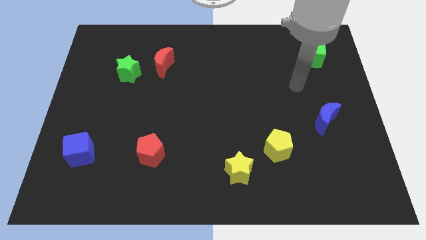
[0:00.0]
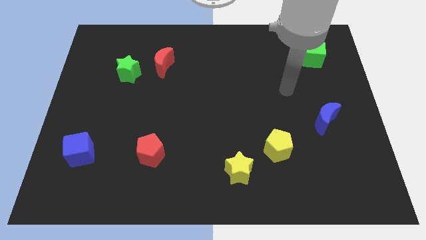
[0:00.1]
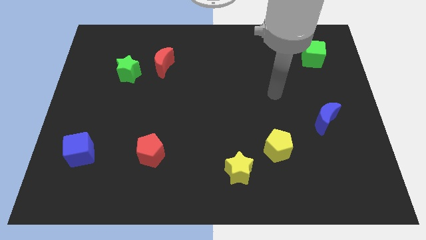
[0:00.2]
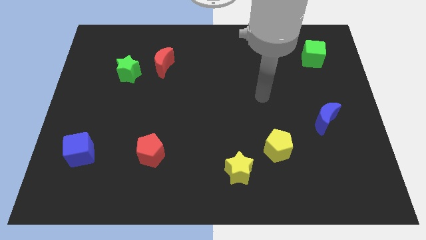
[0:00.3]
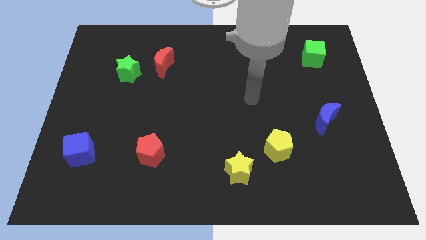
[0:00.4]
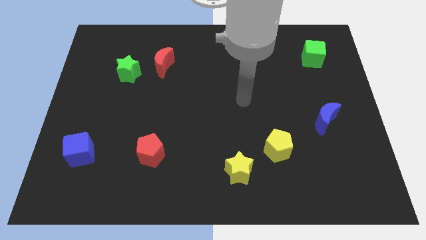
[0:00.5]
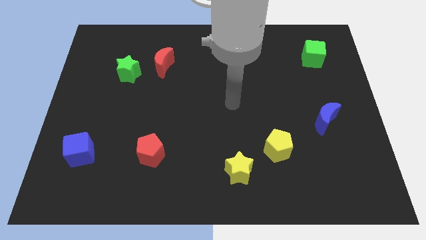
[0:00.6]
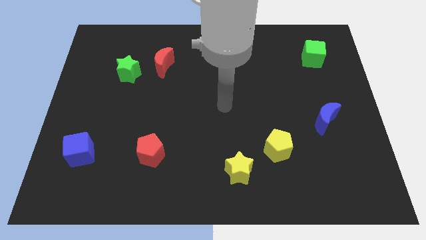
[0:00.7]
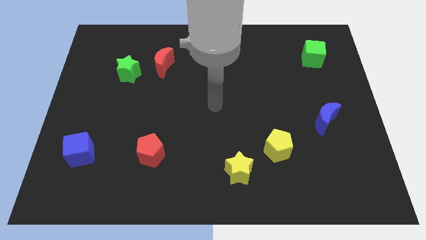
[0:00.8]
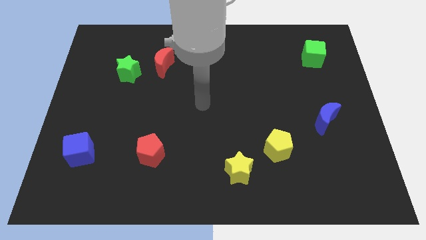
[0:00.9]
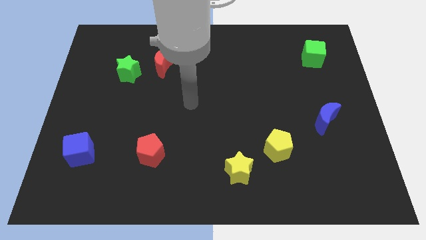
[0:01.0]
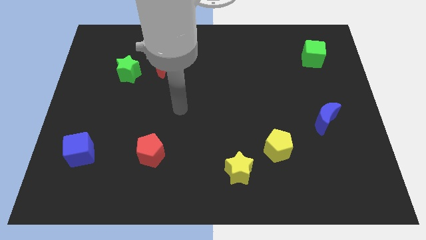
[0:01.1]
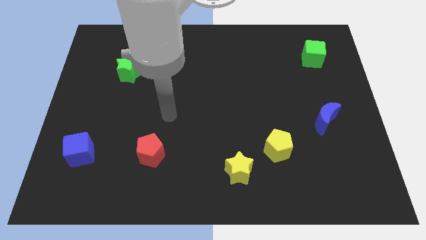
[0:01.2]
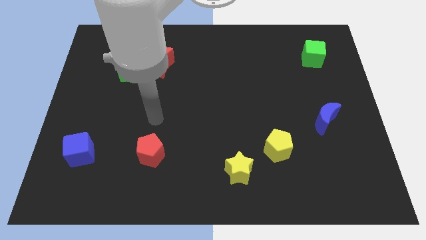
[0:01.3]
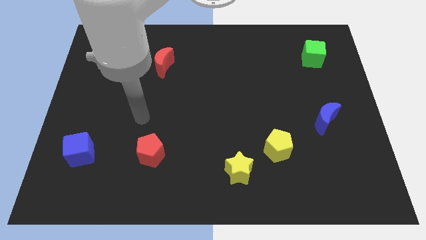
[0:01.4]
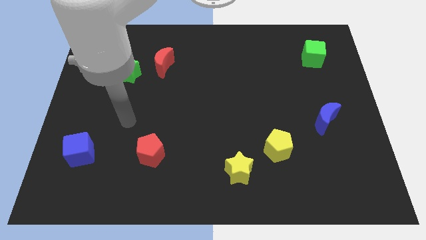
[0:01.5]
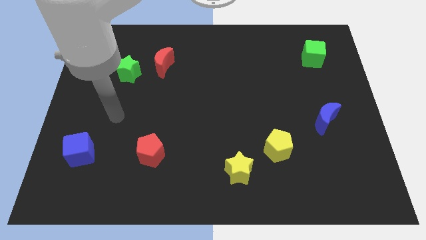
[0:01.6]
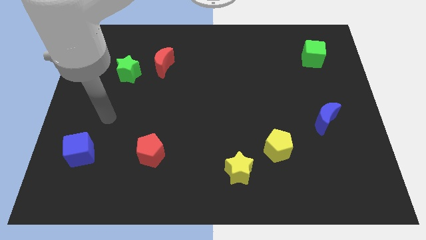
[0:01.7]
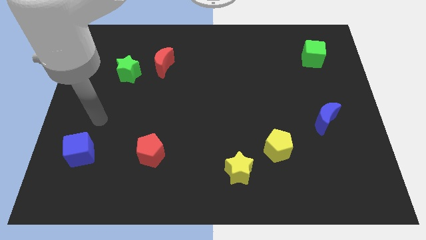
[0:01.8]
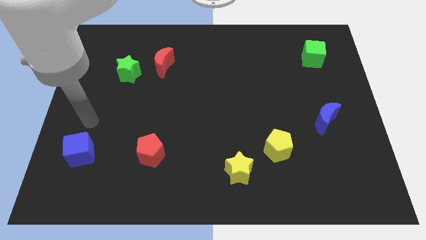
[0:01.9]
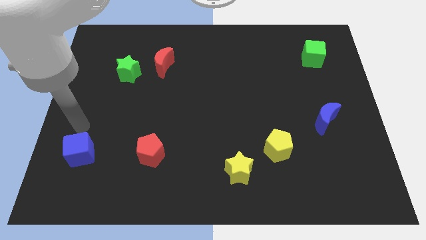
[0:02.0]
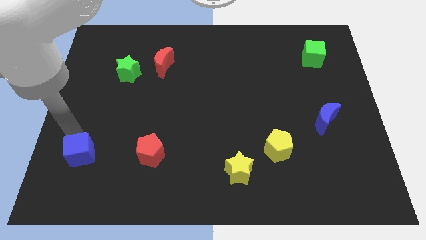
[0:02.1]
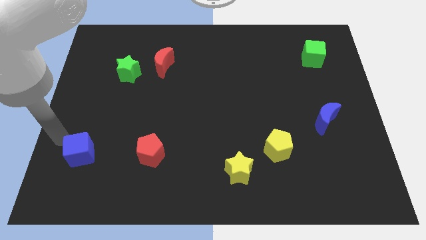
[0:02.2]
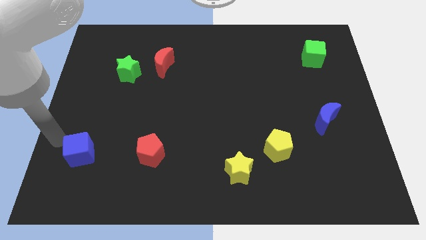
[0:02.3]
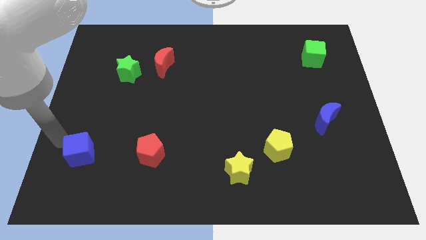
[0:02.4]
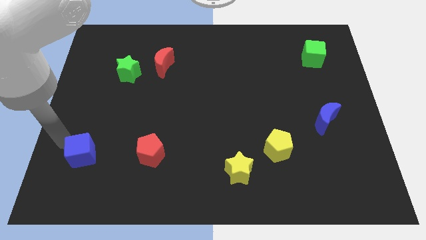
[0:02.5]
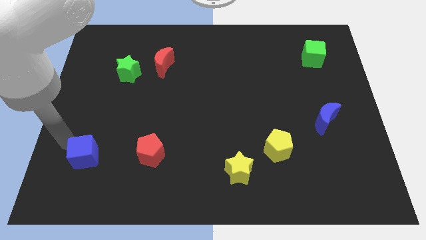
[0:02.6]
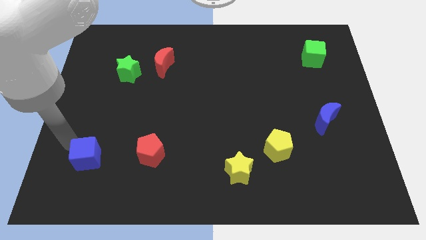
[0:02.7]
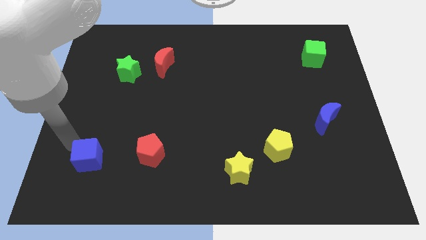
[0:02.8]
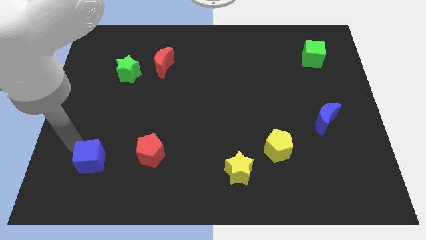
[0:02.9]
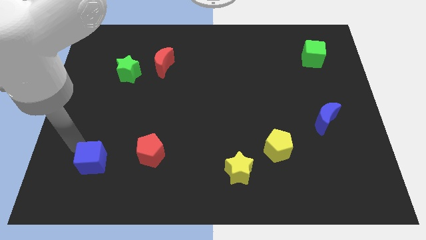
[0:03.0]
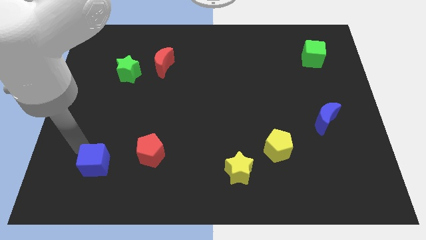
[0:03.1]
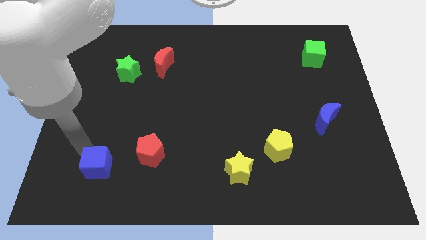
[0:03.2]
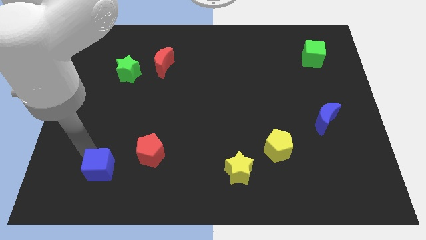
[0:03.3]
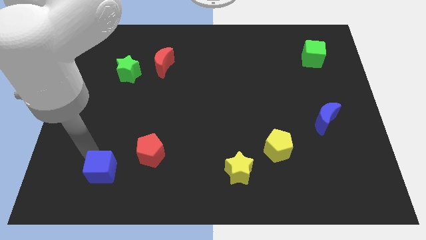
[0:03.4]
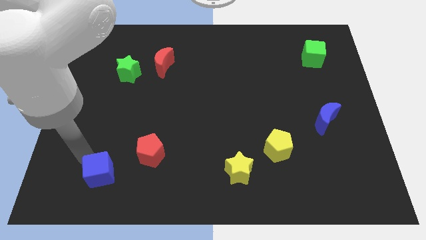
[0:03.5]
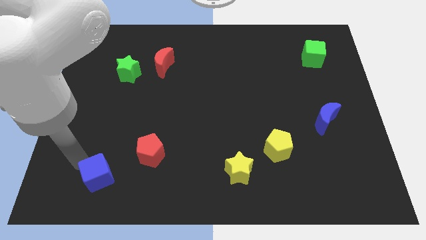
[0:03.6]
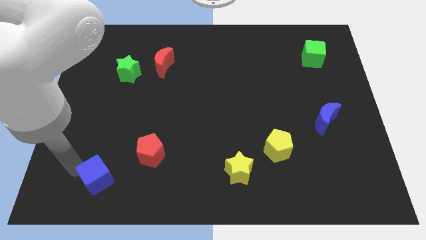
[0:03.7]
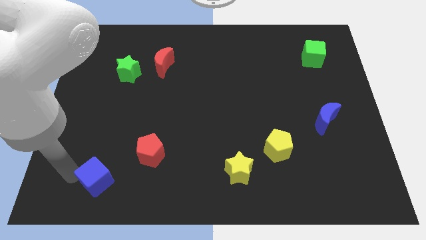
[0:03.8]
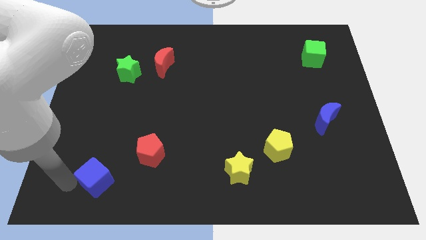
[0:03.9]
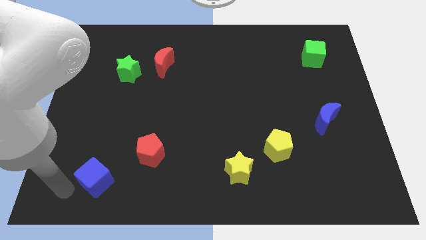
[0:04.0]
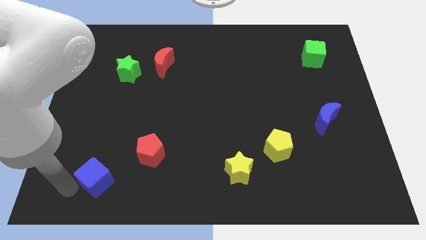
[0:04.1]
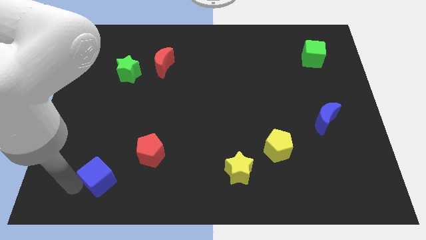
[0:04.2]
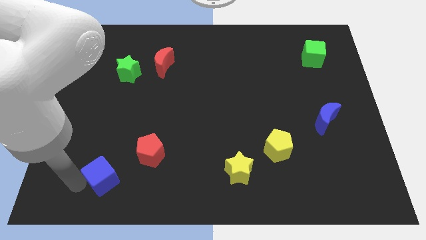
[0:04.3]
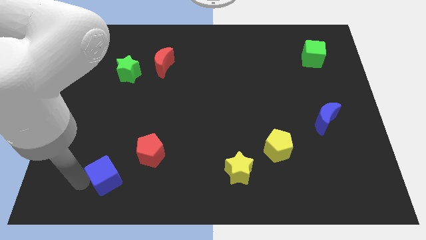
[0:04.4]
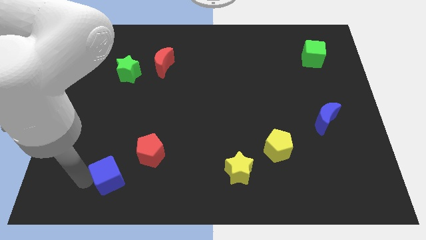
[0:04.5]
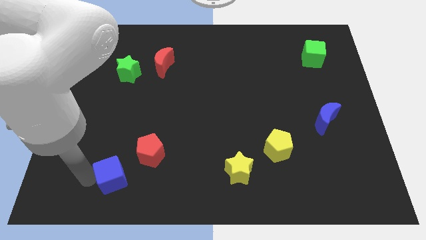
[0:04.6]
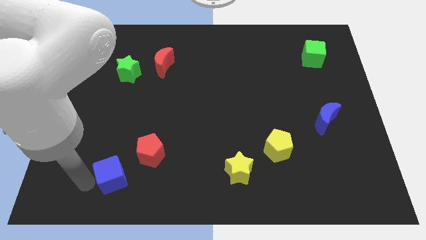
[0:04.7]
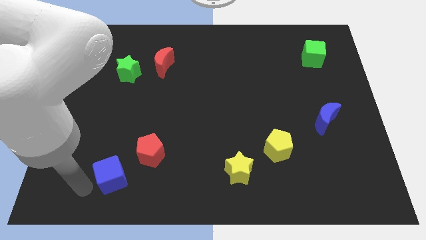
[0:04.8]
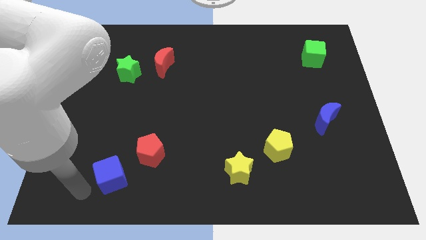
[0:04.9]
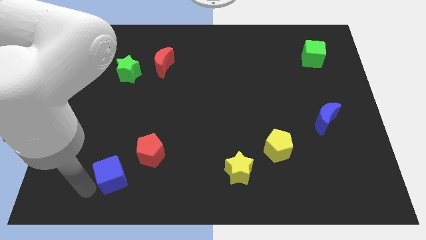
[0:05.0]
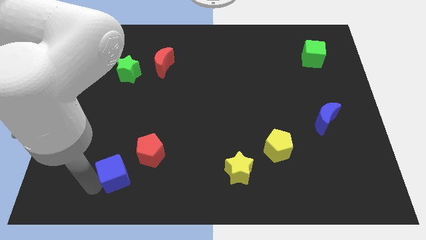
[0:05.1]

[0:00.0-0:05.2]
slide the blue cube somewhat to the right

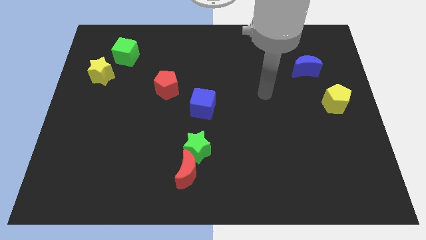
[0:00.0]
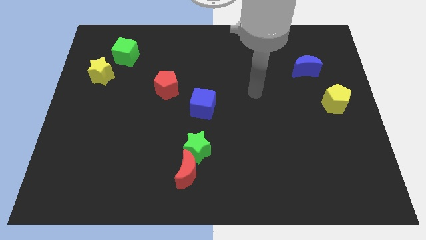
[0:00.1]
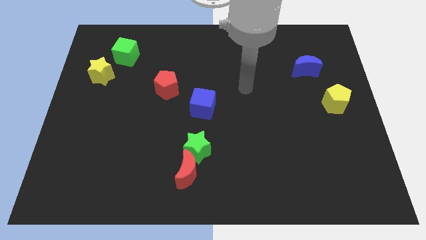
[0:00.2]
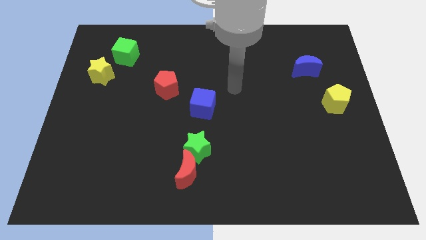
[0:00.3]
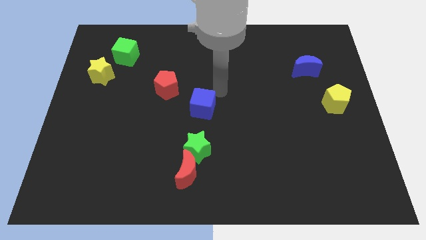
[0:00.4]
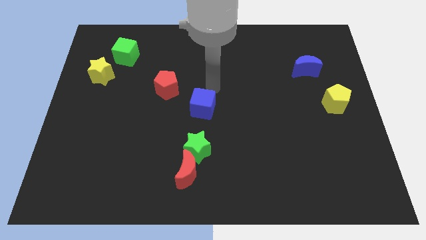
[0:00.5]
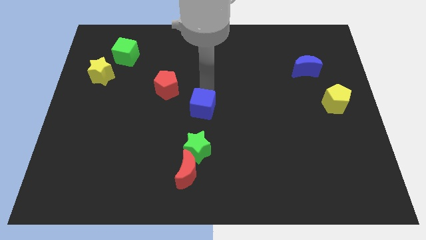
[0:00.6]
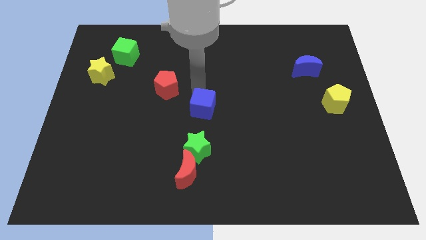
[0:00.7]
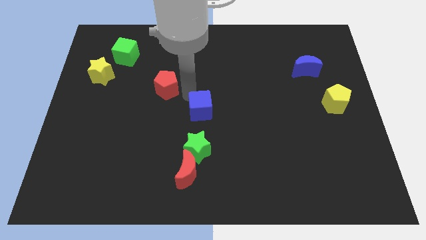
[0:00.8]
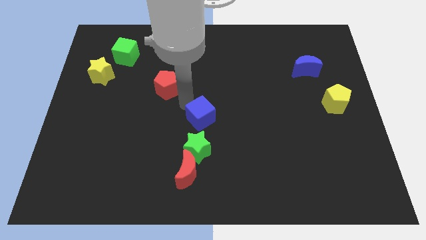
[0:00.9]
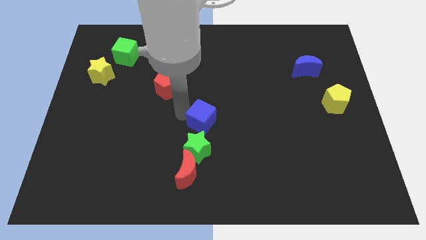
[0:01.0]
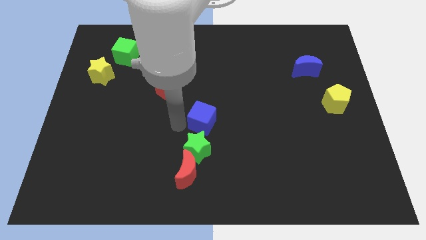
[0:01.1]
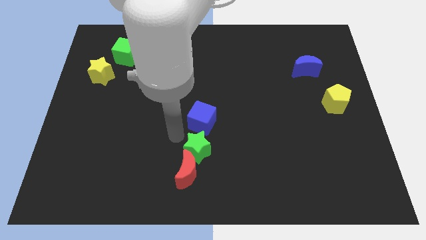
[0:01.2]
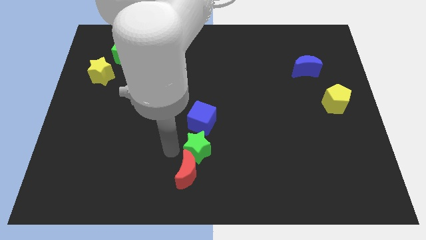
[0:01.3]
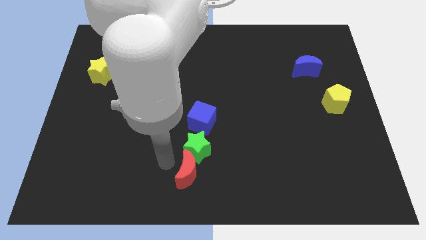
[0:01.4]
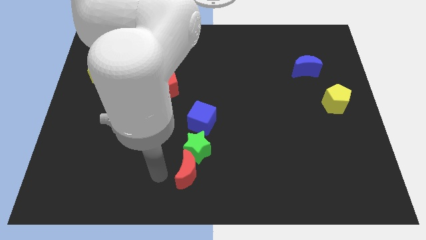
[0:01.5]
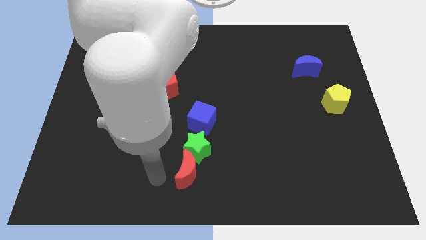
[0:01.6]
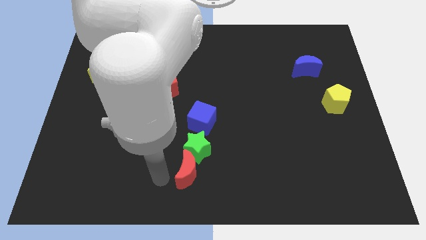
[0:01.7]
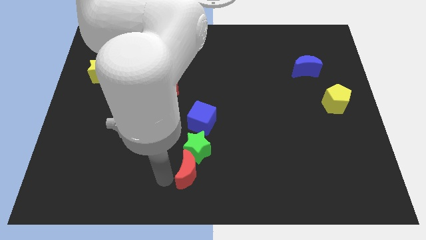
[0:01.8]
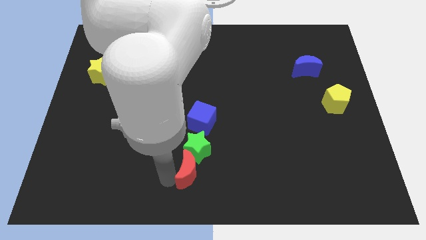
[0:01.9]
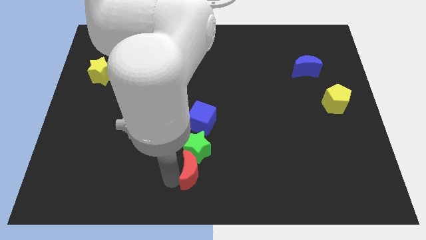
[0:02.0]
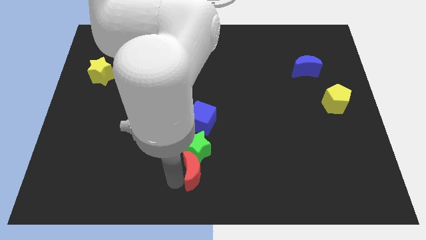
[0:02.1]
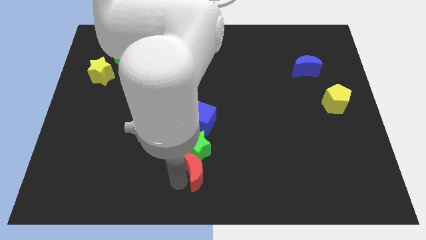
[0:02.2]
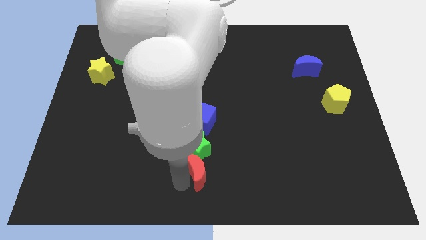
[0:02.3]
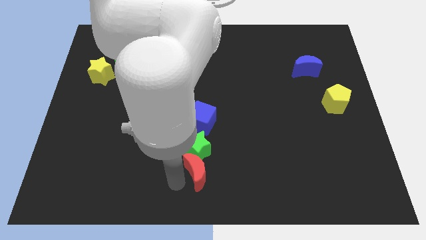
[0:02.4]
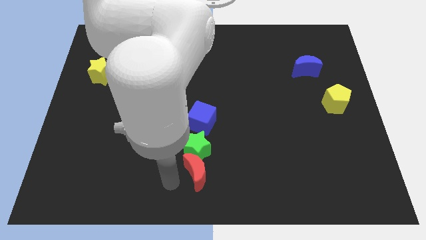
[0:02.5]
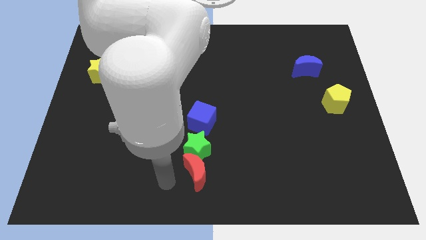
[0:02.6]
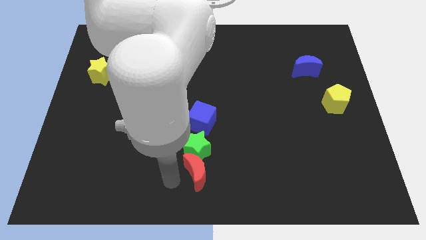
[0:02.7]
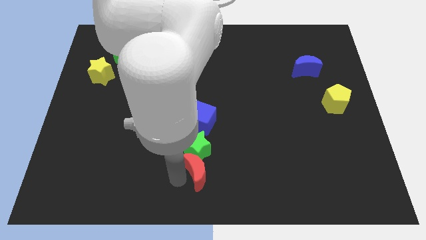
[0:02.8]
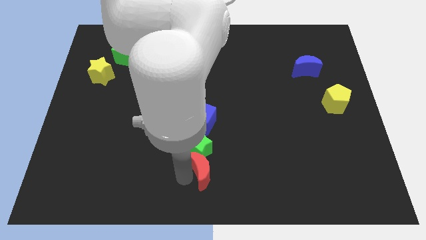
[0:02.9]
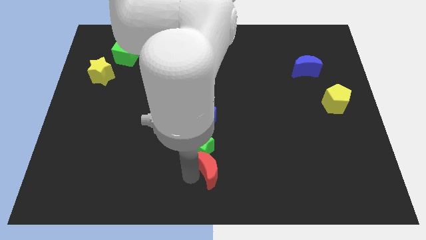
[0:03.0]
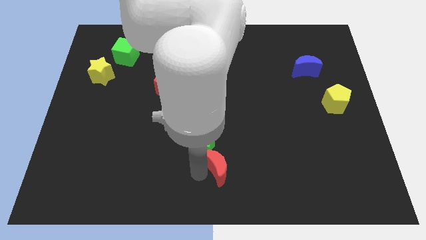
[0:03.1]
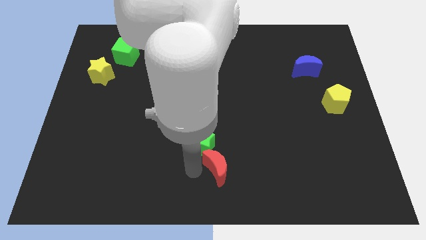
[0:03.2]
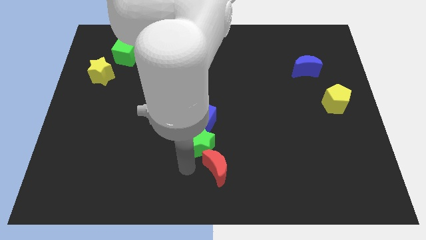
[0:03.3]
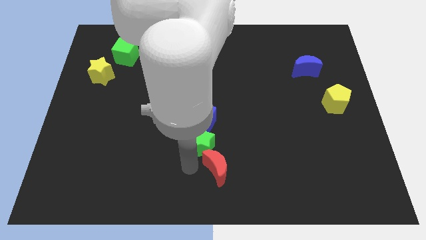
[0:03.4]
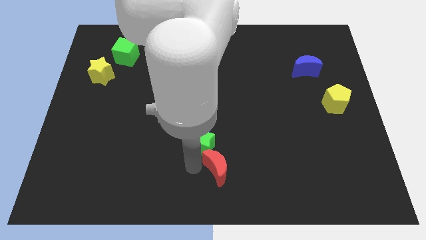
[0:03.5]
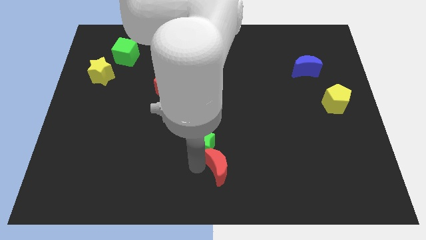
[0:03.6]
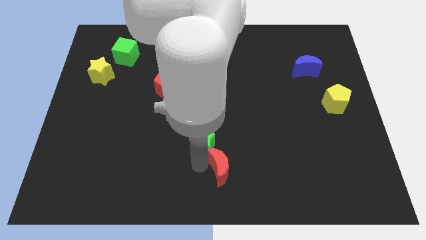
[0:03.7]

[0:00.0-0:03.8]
push the red moon to the right a little bit
